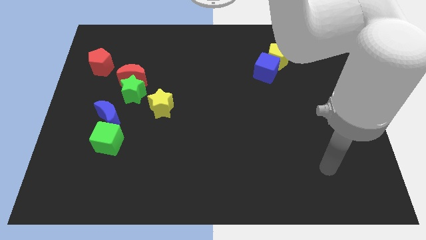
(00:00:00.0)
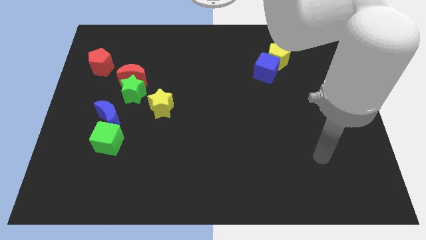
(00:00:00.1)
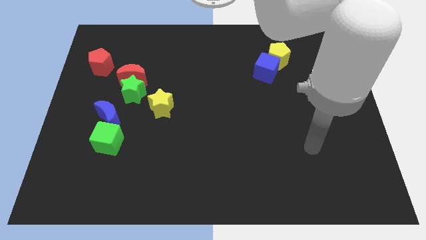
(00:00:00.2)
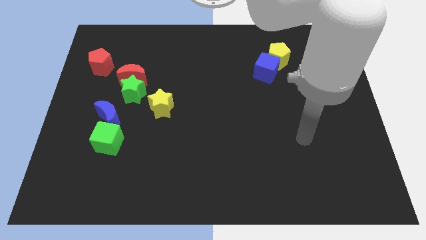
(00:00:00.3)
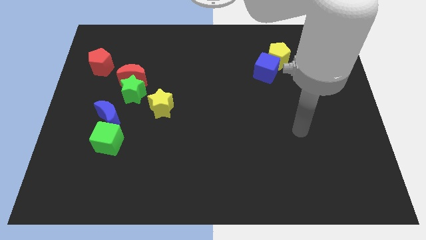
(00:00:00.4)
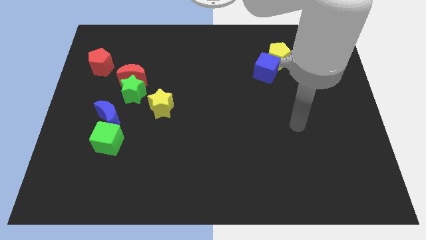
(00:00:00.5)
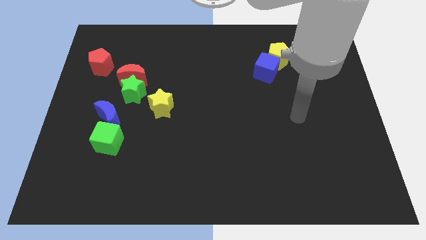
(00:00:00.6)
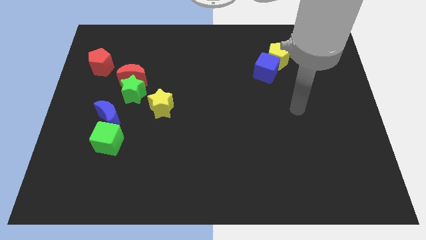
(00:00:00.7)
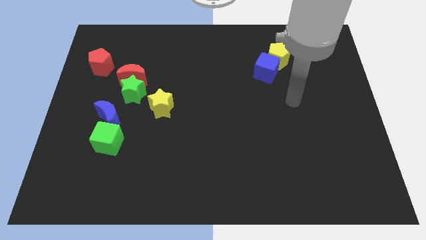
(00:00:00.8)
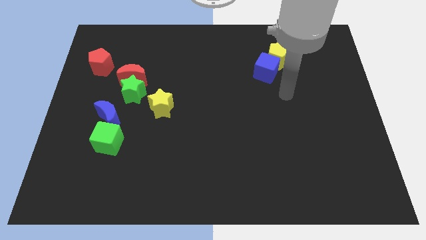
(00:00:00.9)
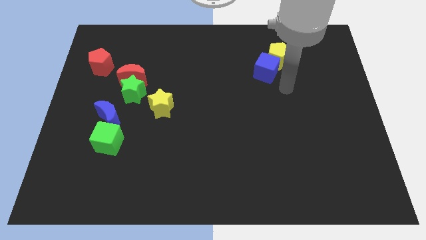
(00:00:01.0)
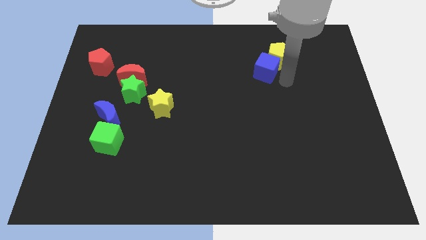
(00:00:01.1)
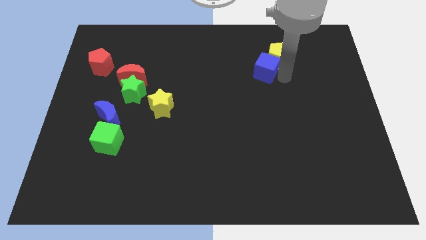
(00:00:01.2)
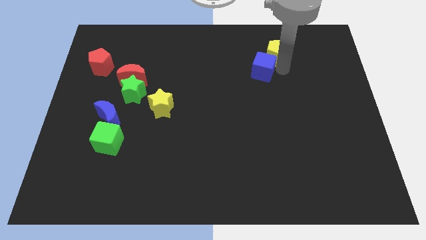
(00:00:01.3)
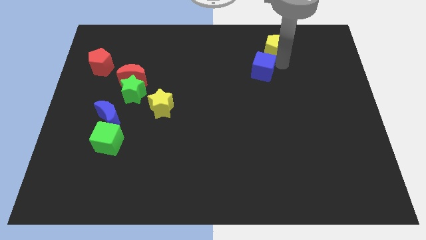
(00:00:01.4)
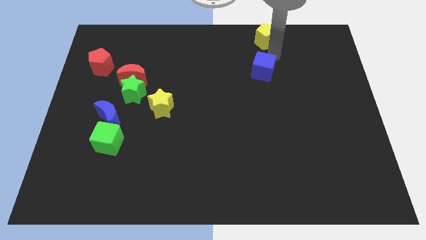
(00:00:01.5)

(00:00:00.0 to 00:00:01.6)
separate the blue cube from the yellow pentagon

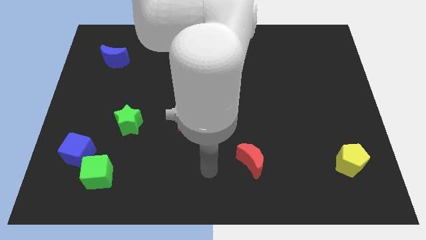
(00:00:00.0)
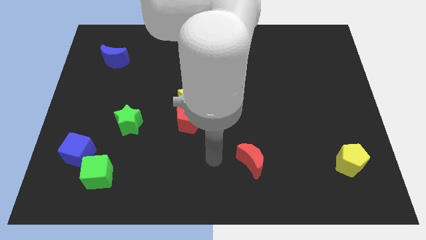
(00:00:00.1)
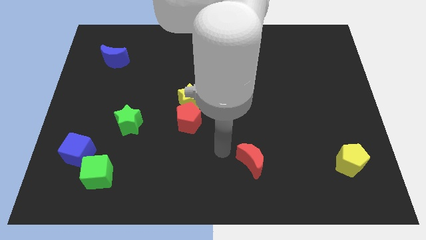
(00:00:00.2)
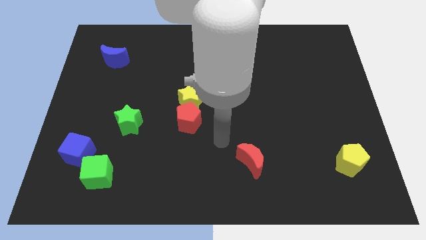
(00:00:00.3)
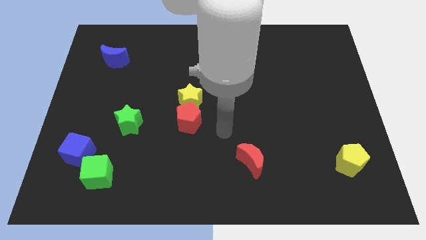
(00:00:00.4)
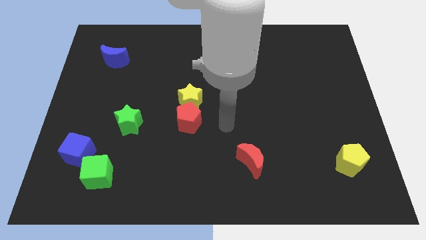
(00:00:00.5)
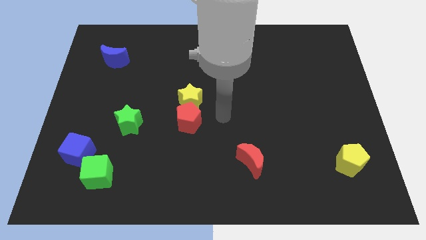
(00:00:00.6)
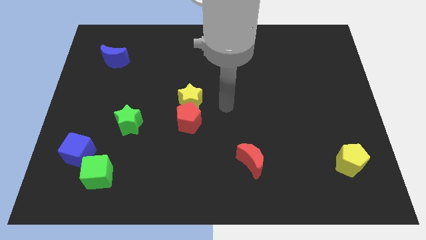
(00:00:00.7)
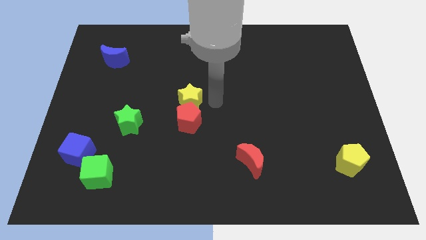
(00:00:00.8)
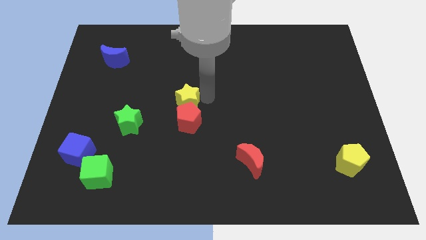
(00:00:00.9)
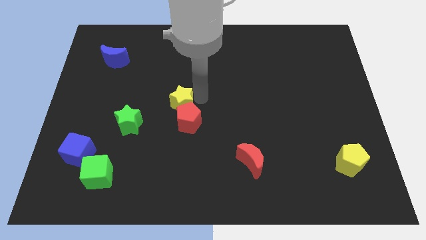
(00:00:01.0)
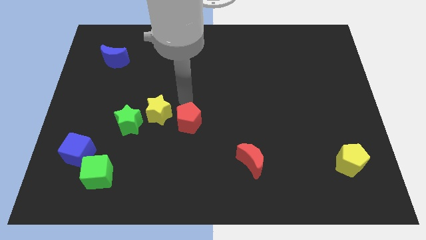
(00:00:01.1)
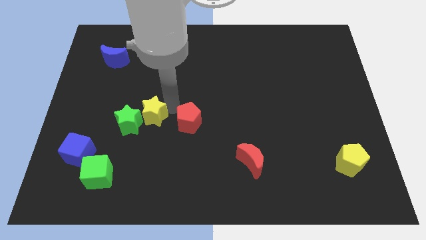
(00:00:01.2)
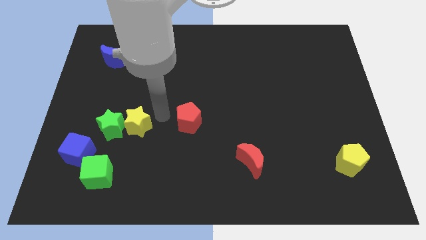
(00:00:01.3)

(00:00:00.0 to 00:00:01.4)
separate the red pentagon from the yellow star

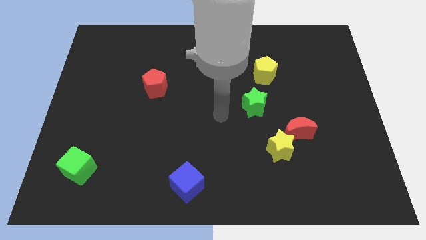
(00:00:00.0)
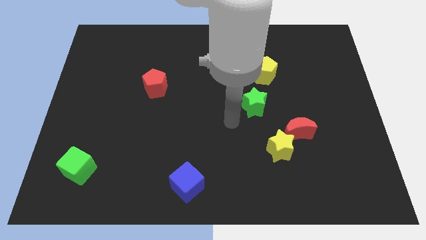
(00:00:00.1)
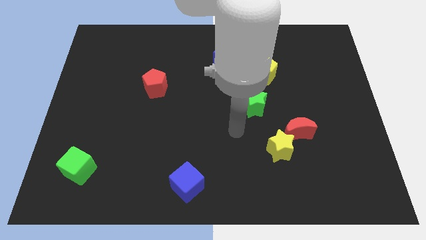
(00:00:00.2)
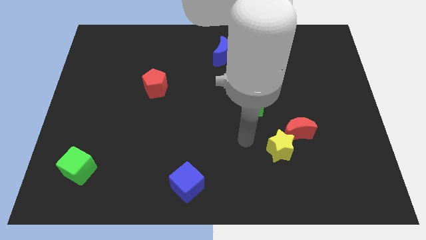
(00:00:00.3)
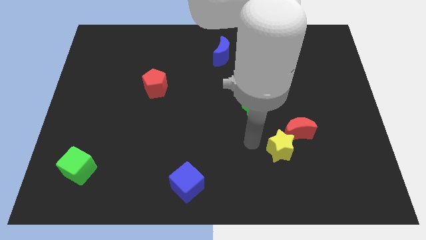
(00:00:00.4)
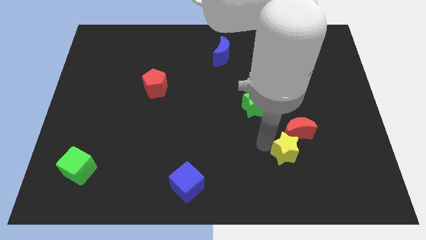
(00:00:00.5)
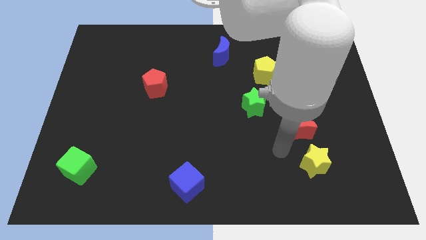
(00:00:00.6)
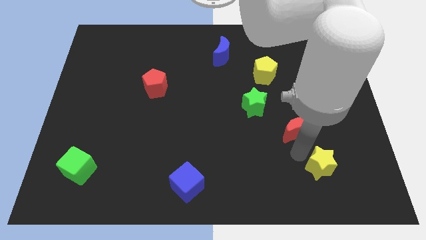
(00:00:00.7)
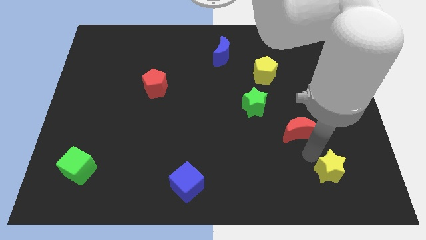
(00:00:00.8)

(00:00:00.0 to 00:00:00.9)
move the red moon away from the yellow star

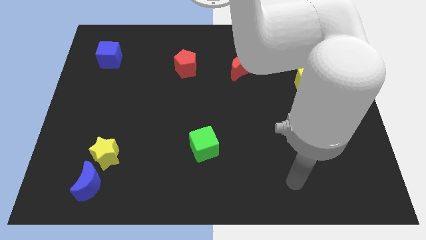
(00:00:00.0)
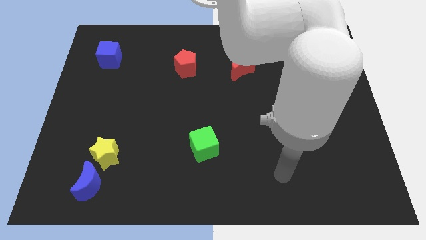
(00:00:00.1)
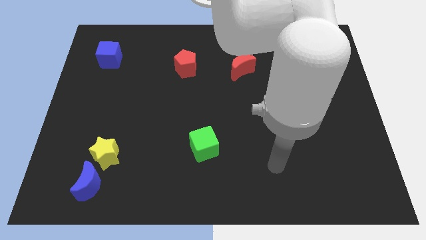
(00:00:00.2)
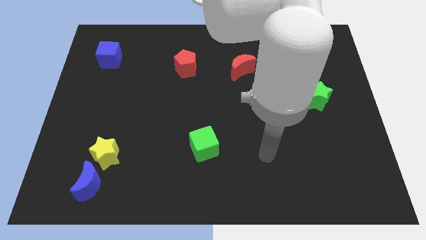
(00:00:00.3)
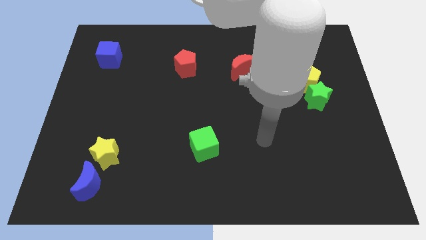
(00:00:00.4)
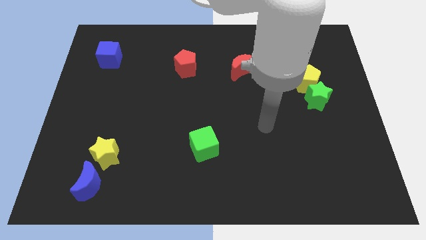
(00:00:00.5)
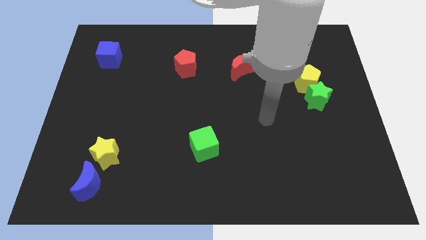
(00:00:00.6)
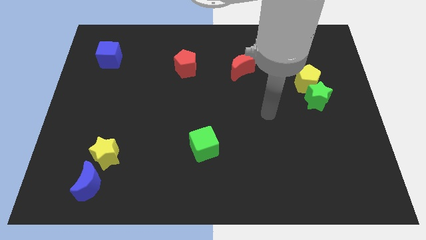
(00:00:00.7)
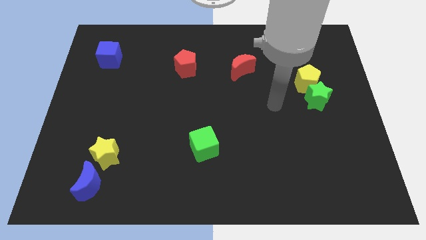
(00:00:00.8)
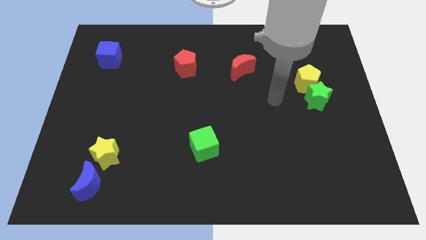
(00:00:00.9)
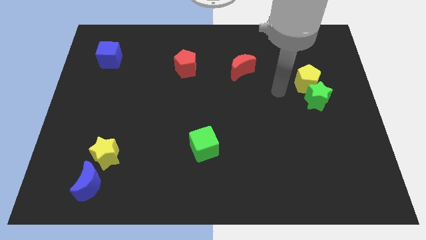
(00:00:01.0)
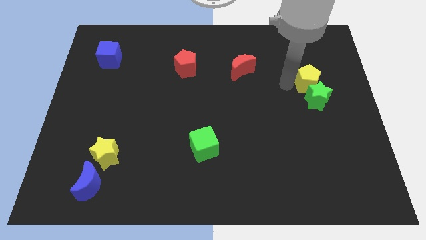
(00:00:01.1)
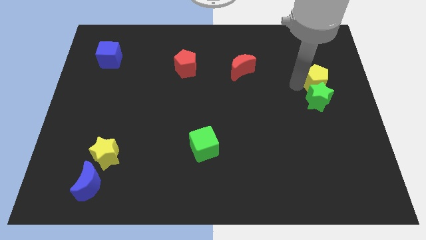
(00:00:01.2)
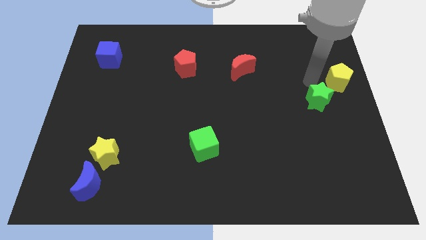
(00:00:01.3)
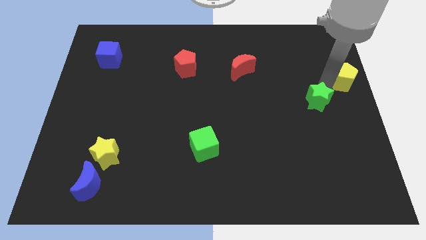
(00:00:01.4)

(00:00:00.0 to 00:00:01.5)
pull the green star apart from the yellow pentagon

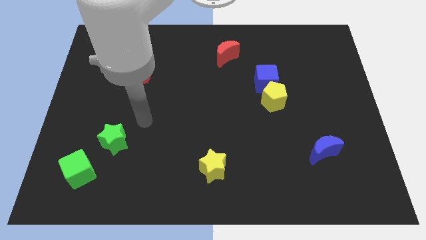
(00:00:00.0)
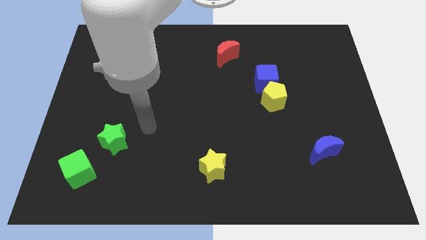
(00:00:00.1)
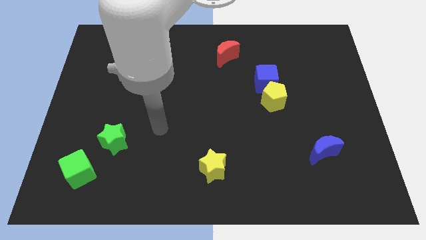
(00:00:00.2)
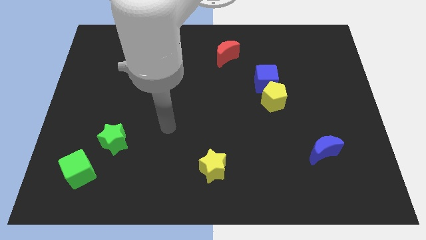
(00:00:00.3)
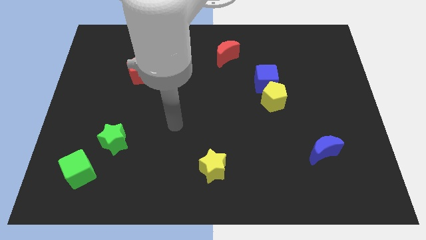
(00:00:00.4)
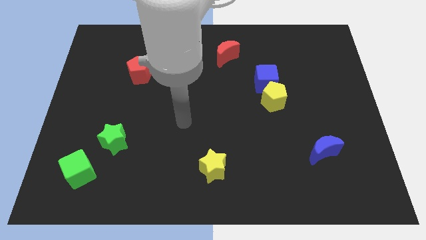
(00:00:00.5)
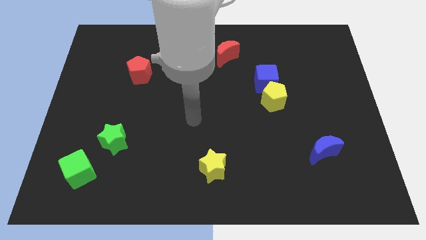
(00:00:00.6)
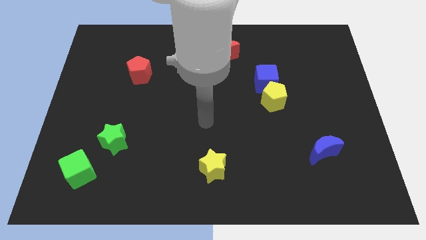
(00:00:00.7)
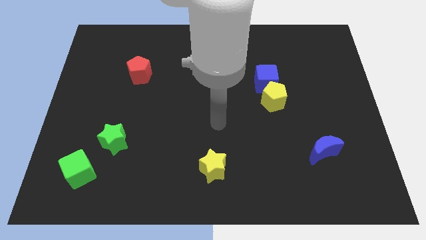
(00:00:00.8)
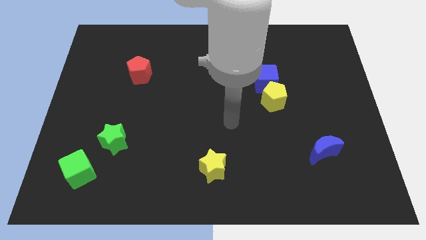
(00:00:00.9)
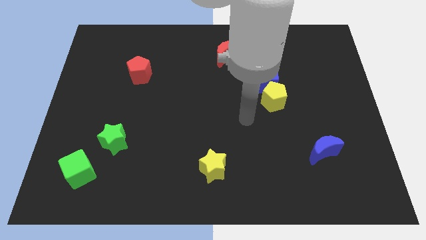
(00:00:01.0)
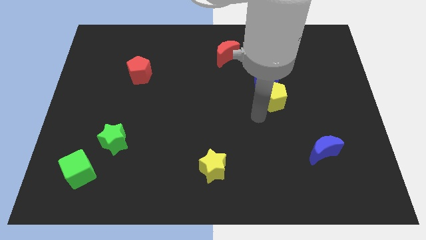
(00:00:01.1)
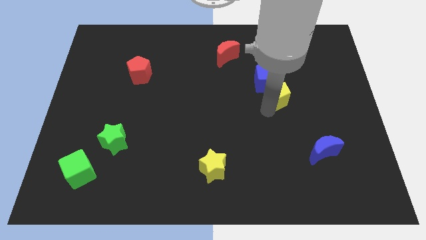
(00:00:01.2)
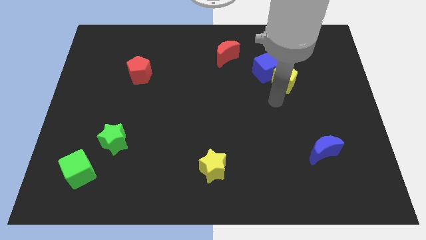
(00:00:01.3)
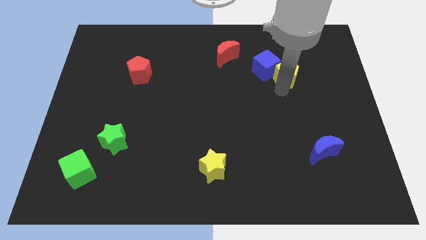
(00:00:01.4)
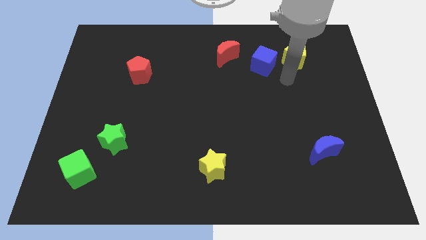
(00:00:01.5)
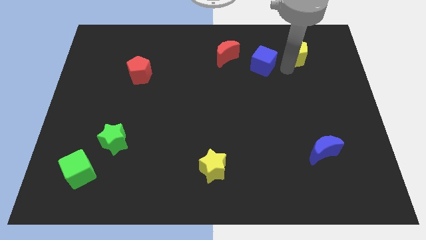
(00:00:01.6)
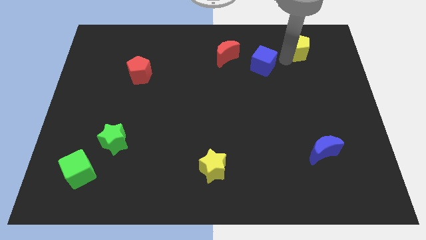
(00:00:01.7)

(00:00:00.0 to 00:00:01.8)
move the blue cube away from the yellow pentagon

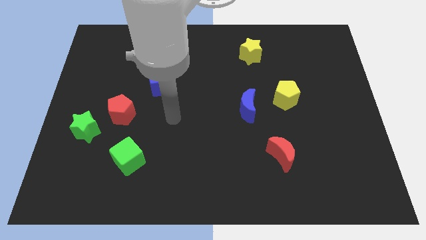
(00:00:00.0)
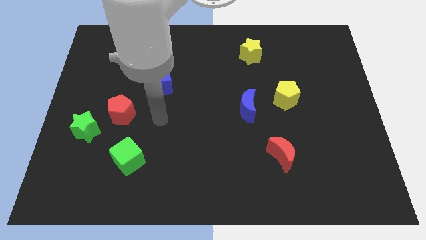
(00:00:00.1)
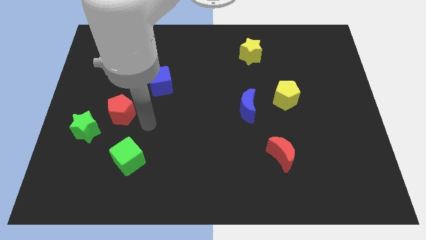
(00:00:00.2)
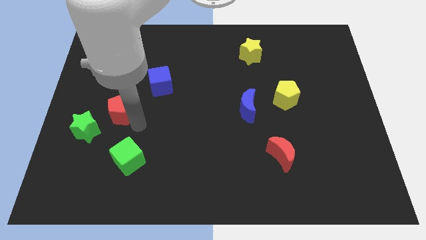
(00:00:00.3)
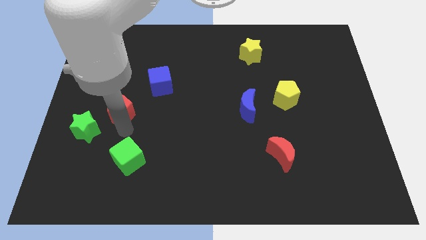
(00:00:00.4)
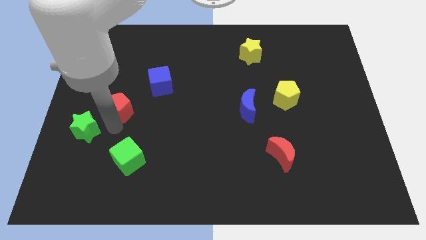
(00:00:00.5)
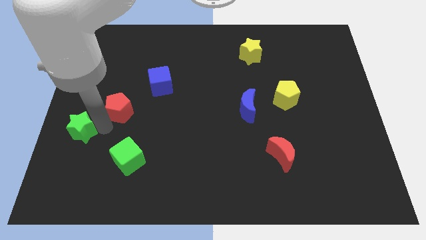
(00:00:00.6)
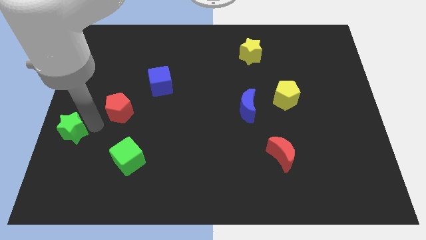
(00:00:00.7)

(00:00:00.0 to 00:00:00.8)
separate the red pentagon from the green star

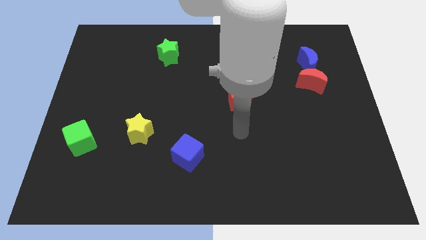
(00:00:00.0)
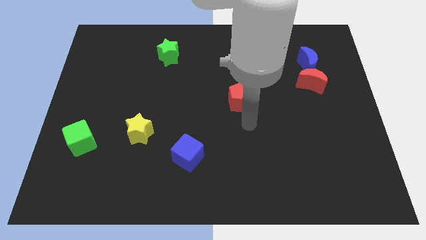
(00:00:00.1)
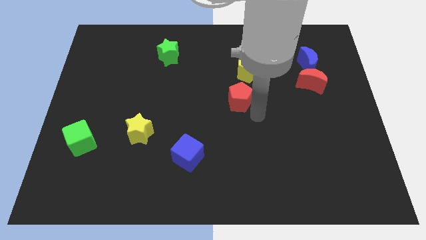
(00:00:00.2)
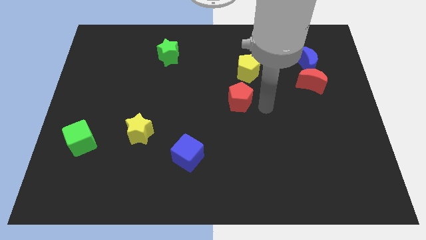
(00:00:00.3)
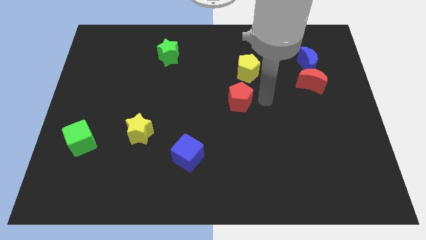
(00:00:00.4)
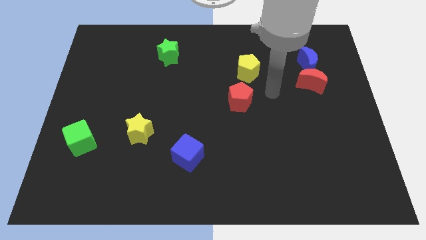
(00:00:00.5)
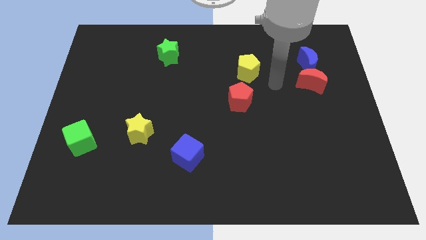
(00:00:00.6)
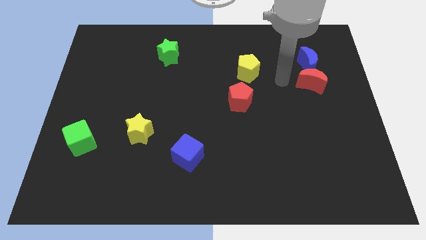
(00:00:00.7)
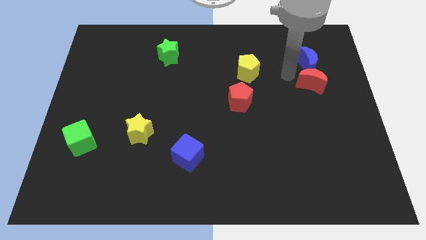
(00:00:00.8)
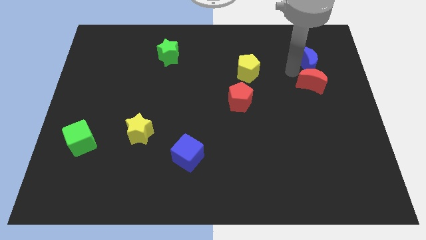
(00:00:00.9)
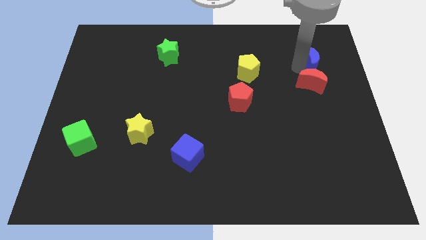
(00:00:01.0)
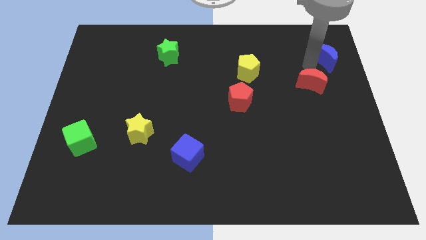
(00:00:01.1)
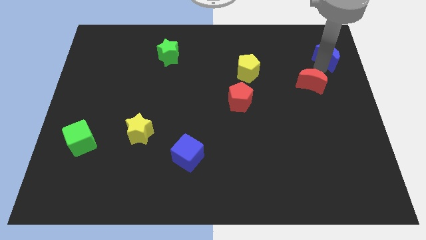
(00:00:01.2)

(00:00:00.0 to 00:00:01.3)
move the red moon away from the blue moon

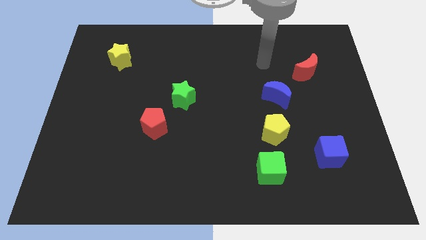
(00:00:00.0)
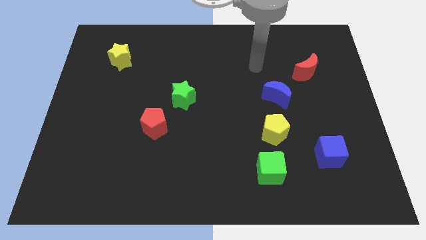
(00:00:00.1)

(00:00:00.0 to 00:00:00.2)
separate the green cube from the yellow pentagon
